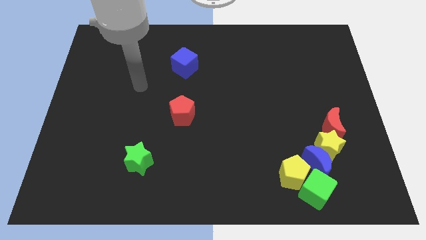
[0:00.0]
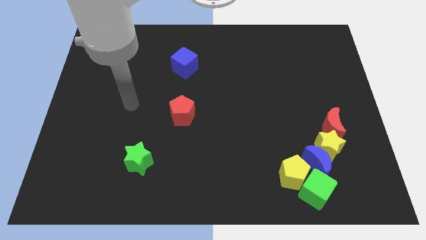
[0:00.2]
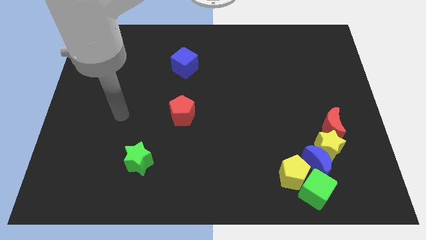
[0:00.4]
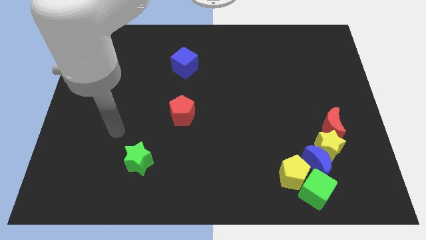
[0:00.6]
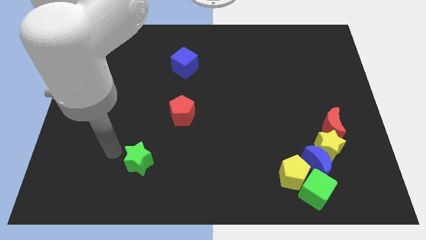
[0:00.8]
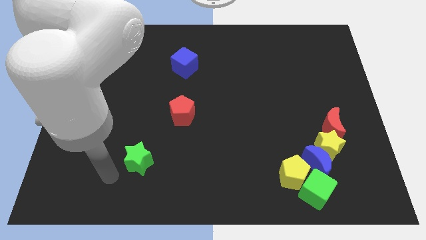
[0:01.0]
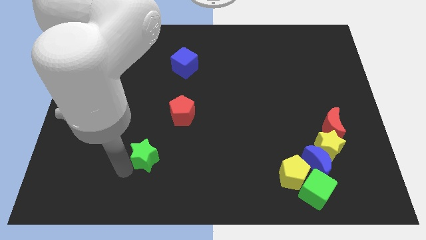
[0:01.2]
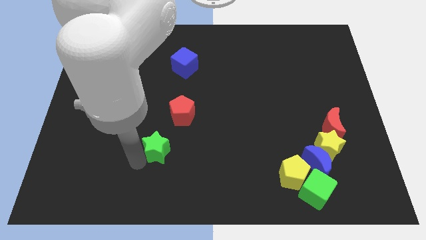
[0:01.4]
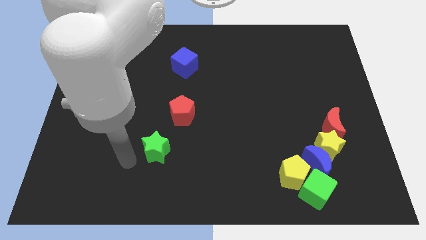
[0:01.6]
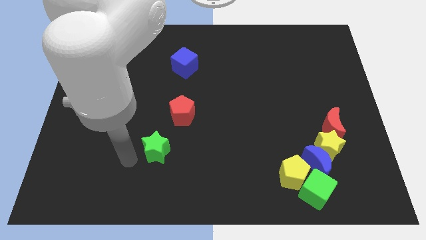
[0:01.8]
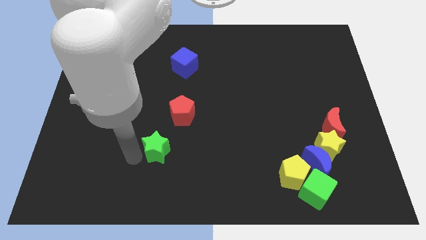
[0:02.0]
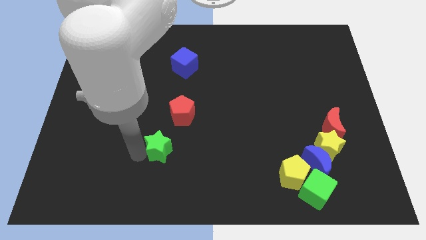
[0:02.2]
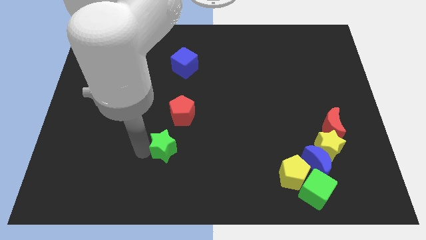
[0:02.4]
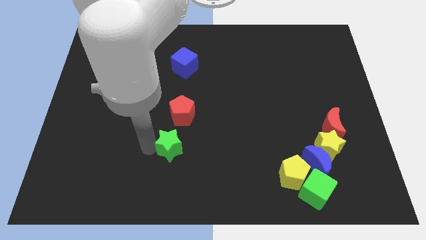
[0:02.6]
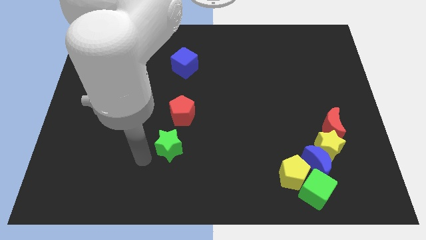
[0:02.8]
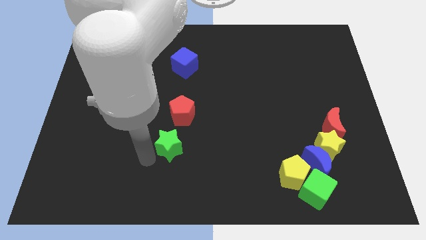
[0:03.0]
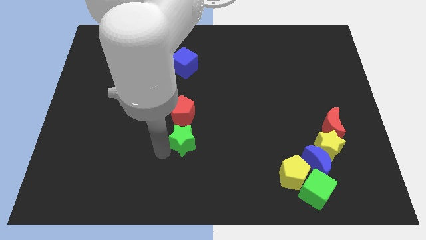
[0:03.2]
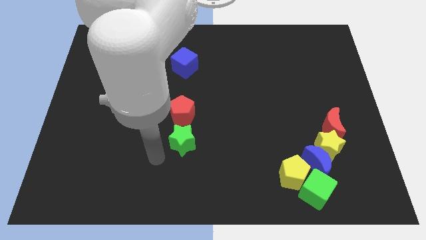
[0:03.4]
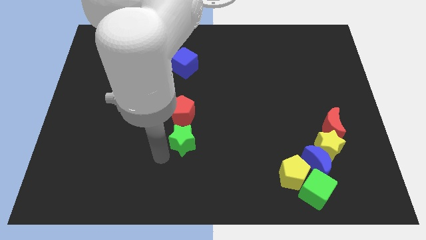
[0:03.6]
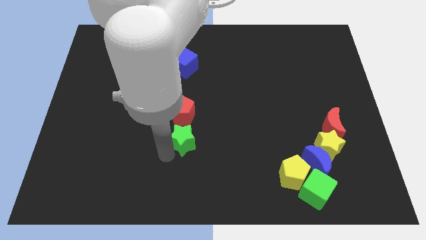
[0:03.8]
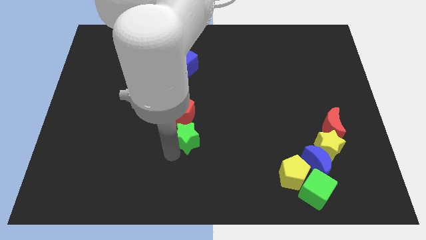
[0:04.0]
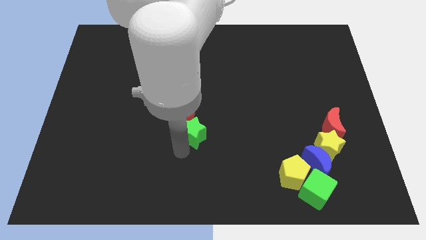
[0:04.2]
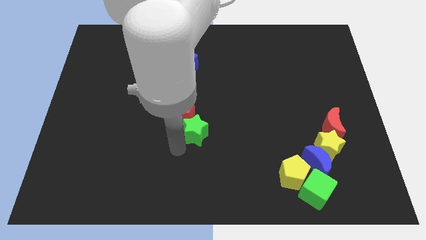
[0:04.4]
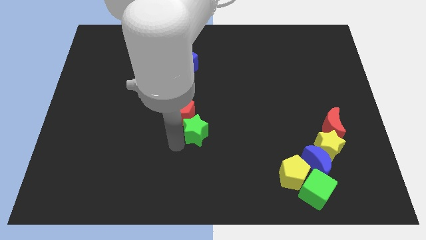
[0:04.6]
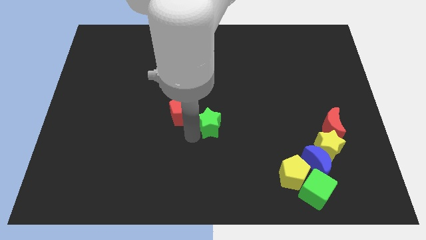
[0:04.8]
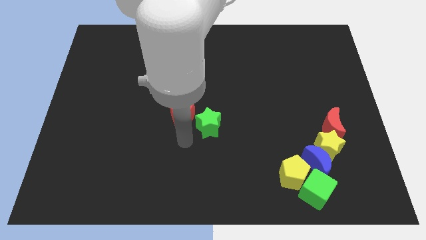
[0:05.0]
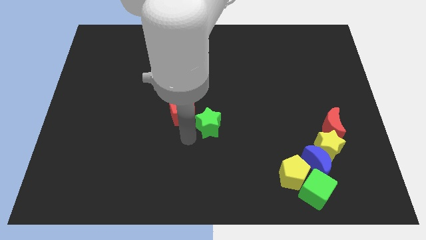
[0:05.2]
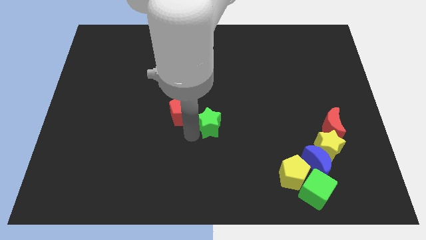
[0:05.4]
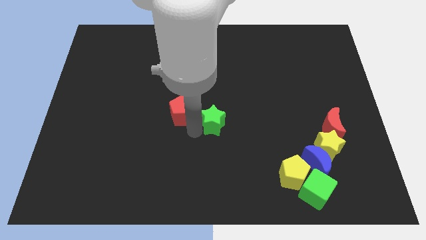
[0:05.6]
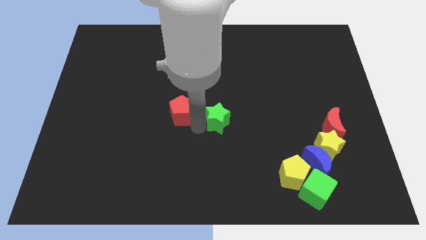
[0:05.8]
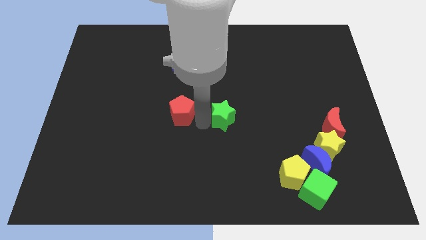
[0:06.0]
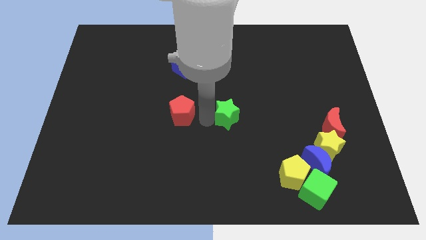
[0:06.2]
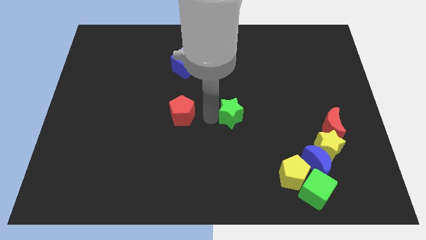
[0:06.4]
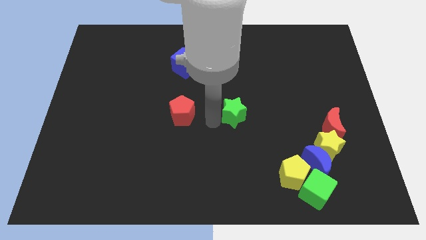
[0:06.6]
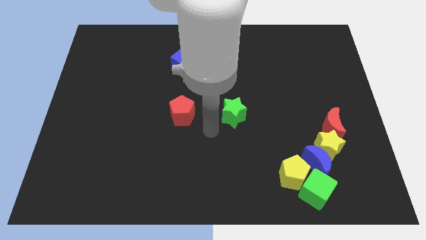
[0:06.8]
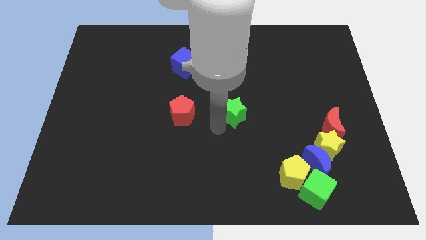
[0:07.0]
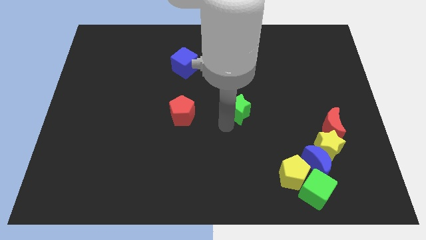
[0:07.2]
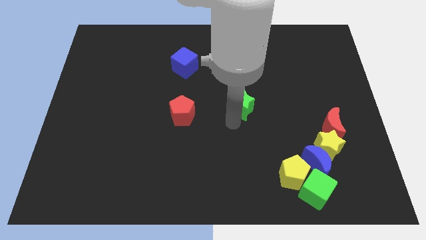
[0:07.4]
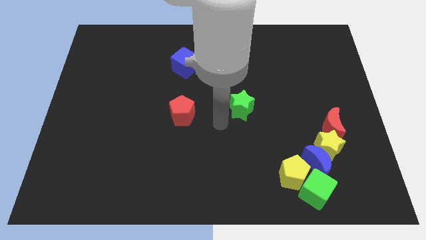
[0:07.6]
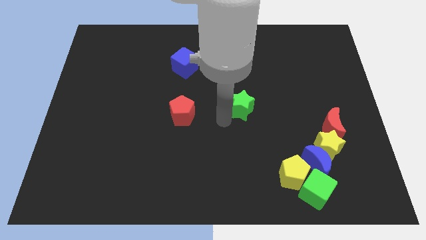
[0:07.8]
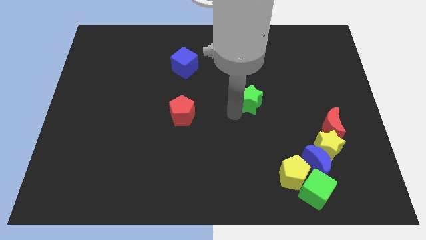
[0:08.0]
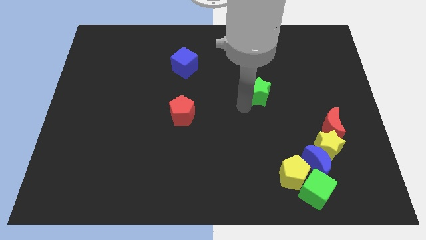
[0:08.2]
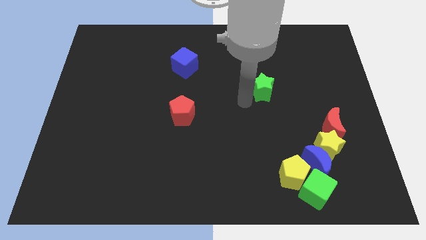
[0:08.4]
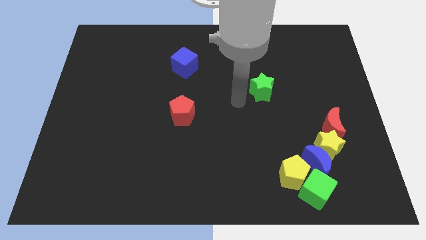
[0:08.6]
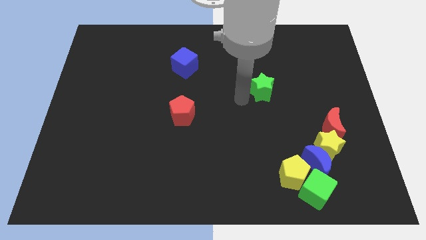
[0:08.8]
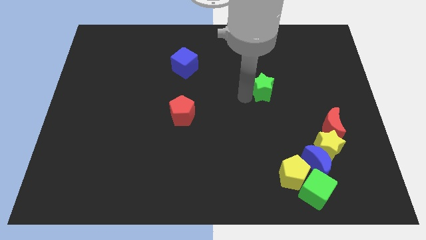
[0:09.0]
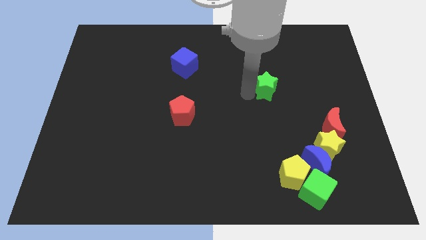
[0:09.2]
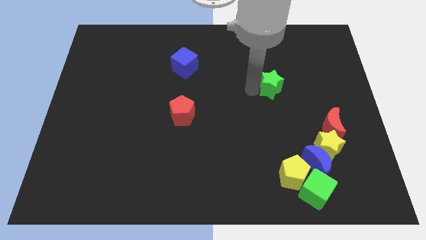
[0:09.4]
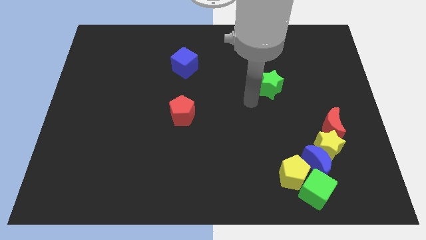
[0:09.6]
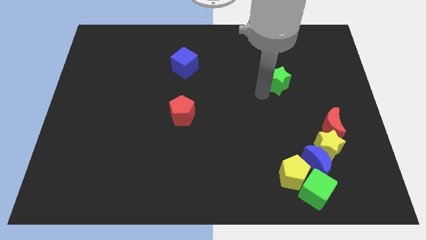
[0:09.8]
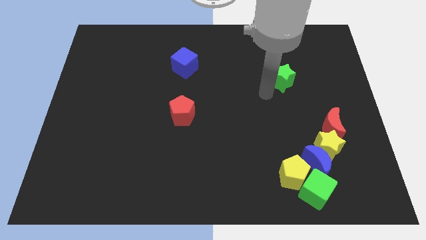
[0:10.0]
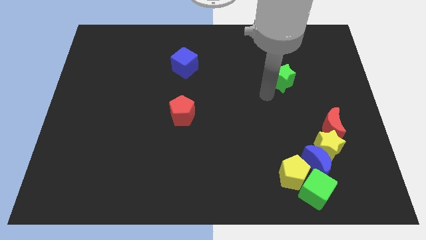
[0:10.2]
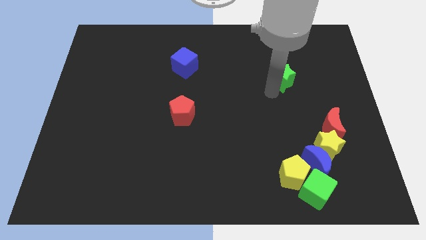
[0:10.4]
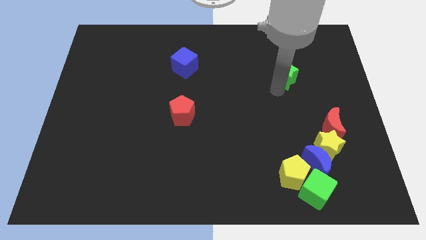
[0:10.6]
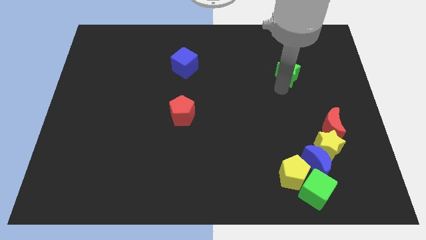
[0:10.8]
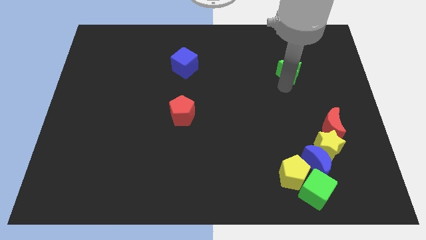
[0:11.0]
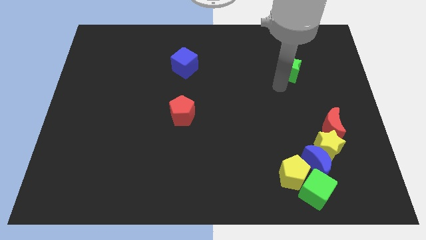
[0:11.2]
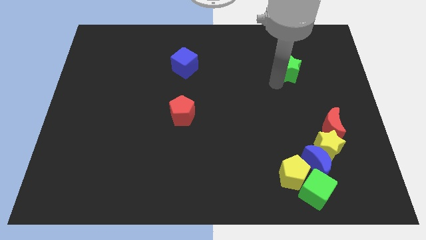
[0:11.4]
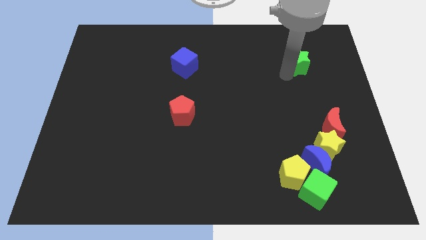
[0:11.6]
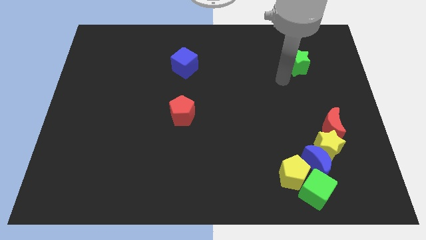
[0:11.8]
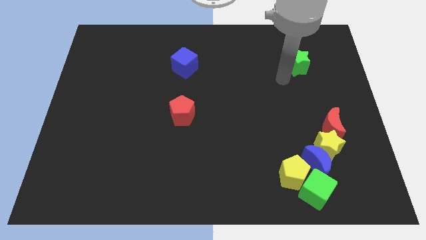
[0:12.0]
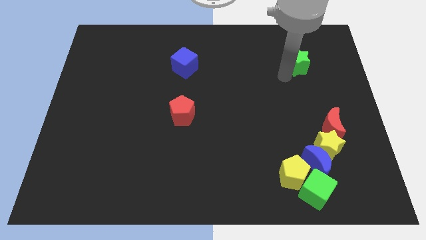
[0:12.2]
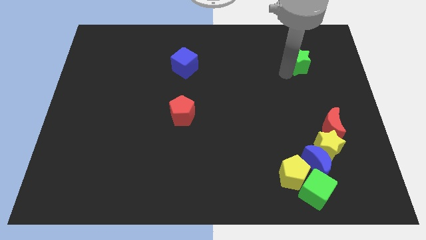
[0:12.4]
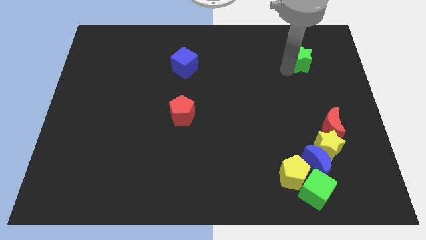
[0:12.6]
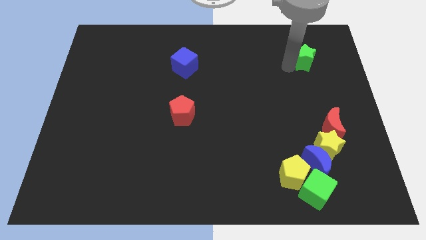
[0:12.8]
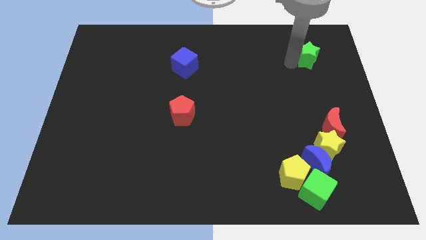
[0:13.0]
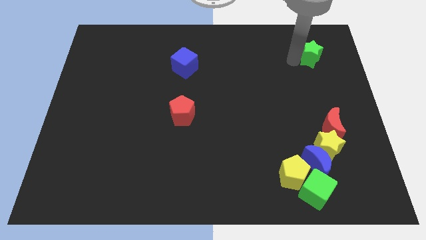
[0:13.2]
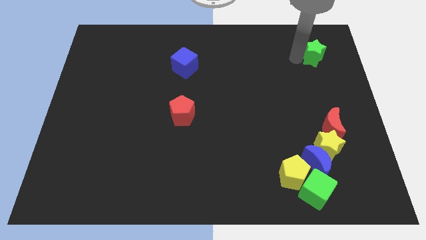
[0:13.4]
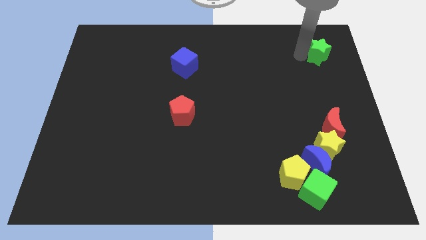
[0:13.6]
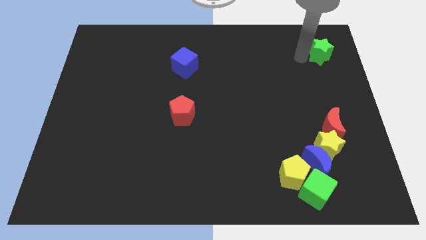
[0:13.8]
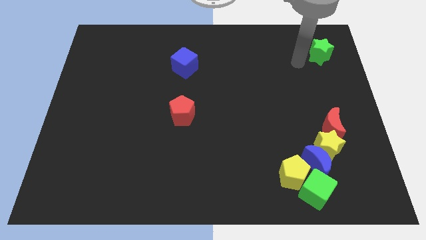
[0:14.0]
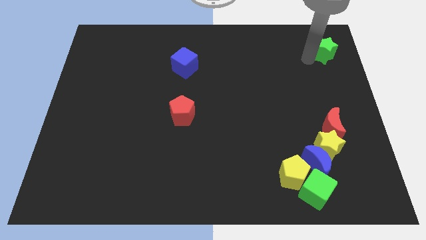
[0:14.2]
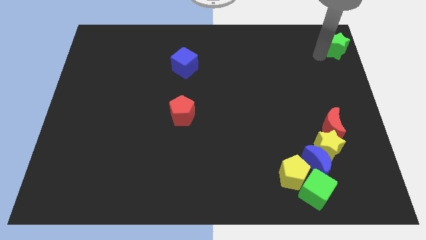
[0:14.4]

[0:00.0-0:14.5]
put the green star to the upper right corner
